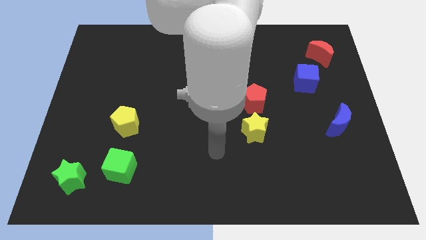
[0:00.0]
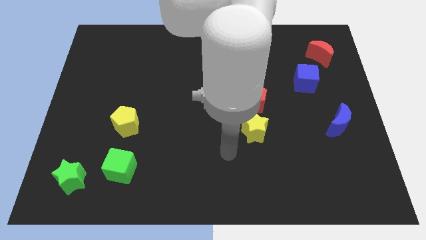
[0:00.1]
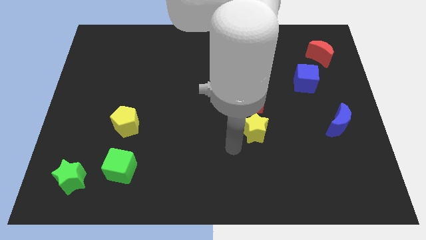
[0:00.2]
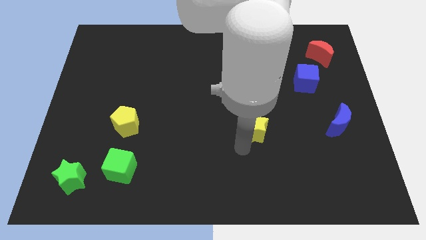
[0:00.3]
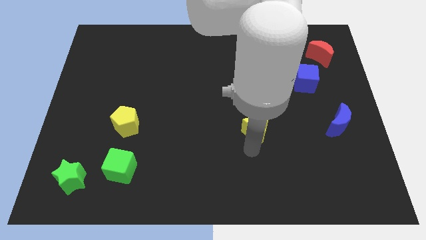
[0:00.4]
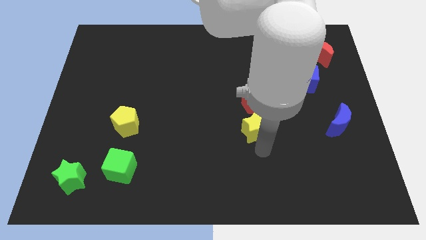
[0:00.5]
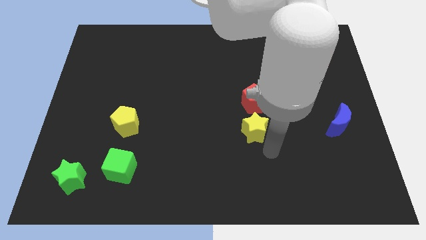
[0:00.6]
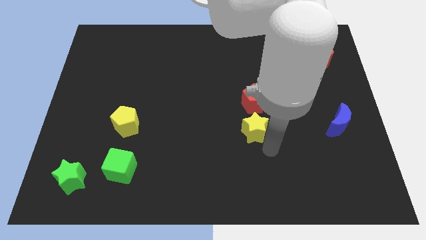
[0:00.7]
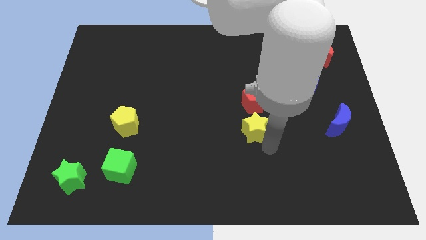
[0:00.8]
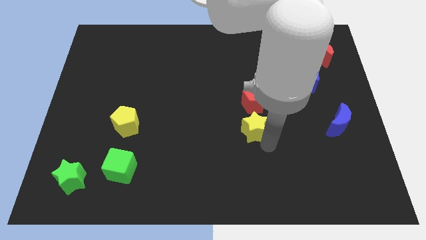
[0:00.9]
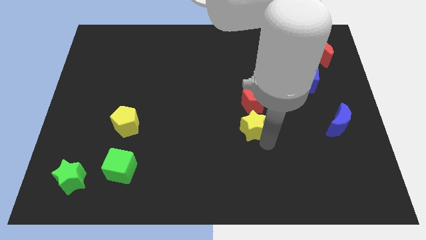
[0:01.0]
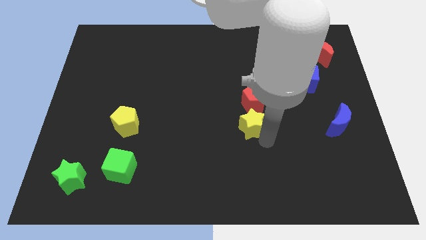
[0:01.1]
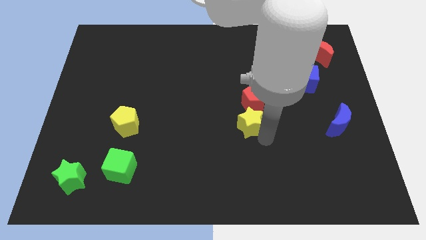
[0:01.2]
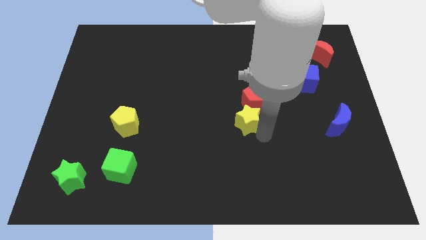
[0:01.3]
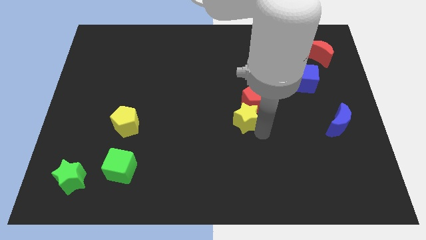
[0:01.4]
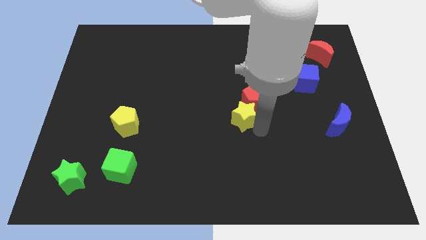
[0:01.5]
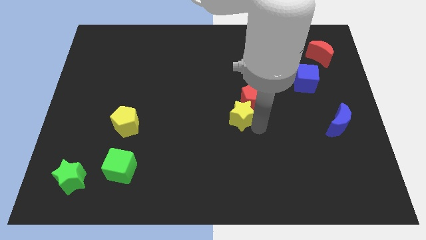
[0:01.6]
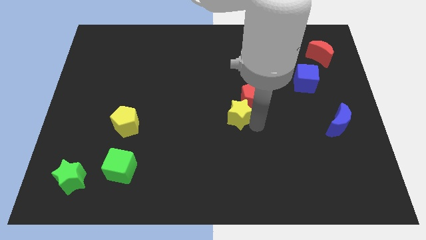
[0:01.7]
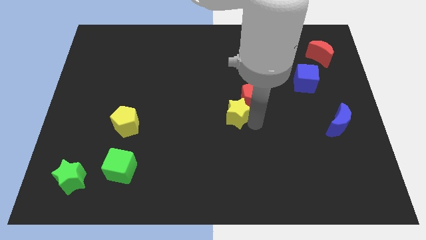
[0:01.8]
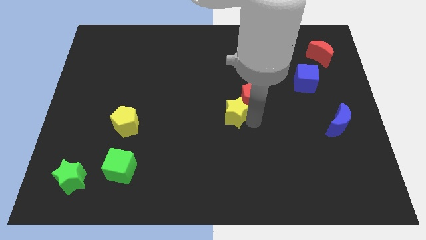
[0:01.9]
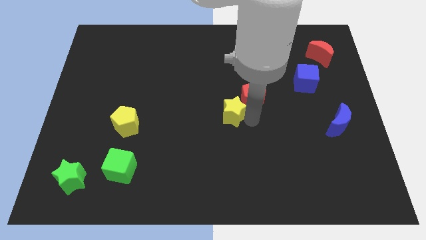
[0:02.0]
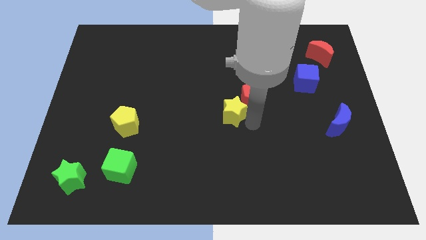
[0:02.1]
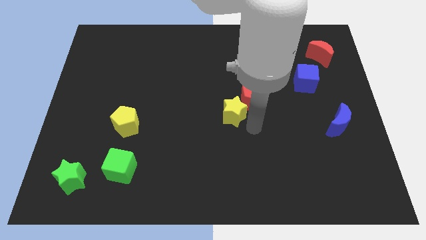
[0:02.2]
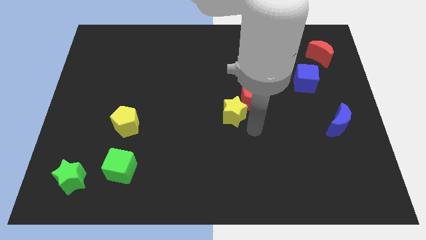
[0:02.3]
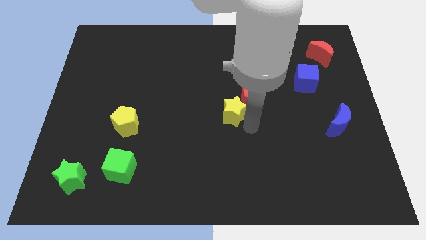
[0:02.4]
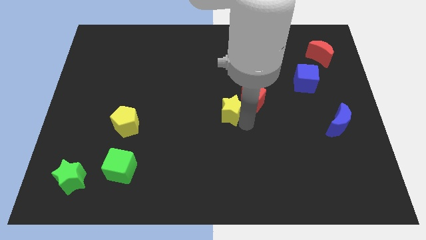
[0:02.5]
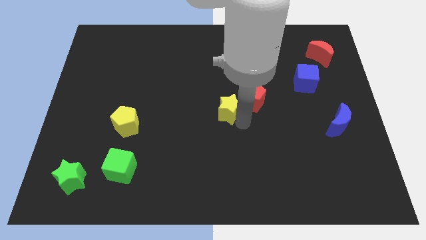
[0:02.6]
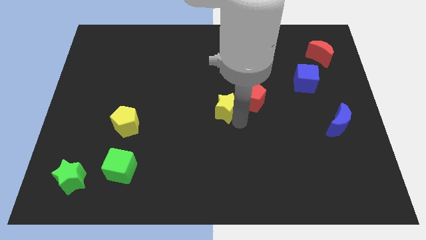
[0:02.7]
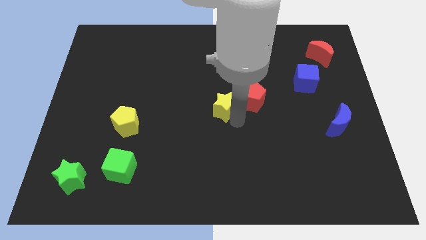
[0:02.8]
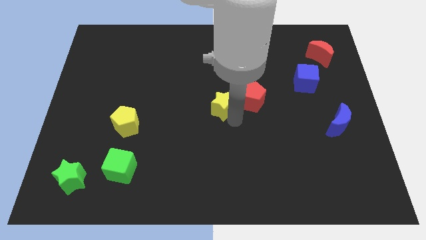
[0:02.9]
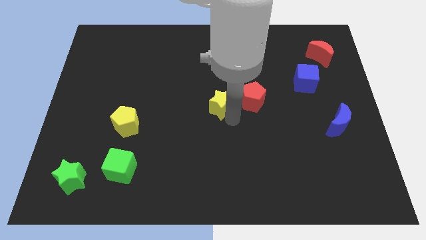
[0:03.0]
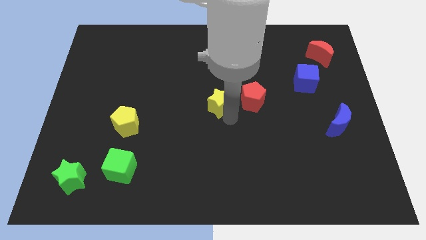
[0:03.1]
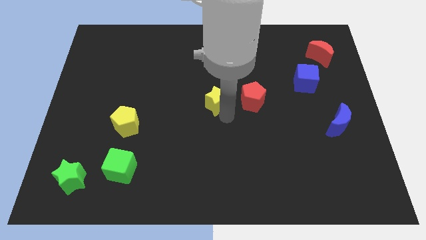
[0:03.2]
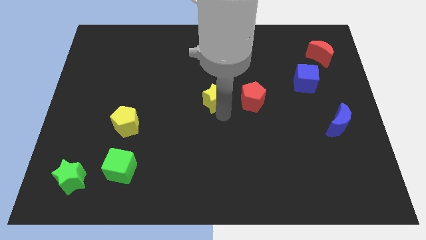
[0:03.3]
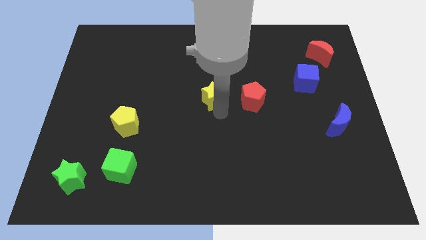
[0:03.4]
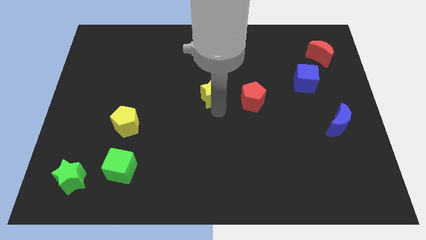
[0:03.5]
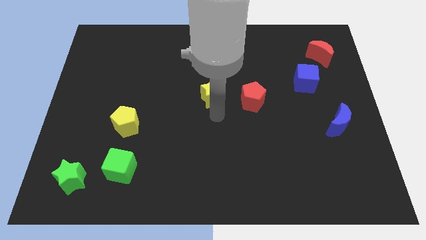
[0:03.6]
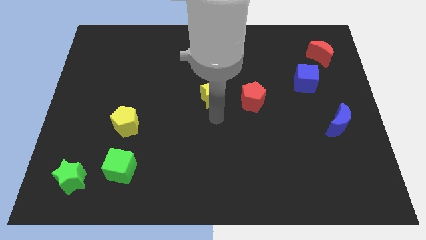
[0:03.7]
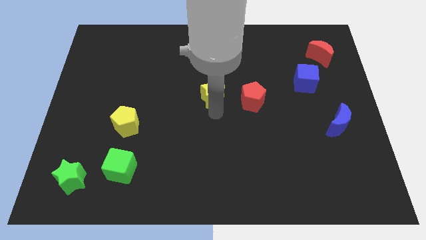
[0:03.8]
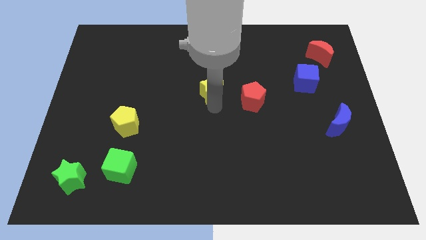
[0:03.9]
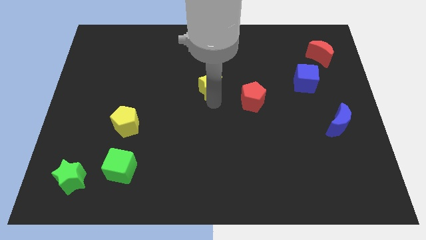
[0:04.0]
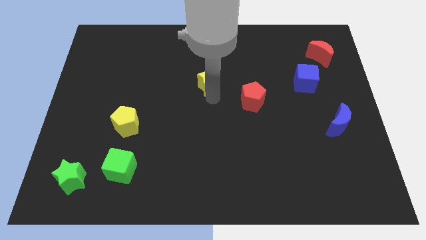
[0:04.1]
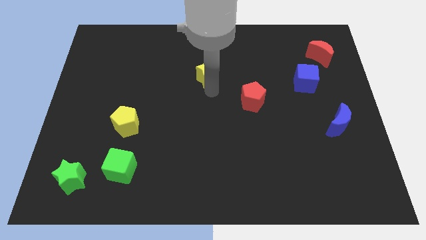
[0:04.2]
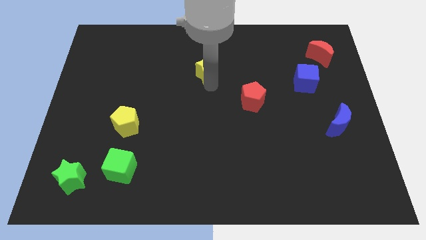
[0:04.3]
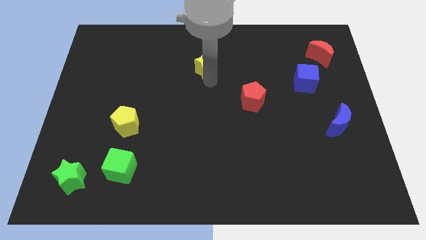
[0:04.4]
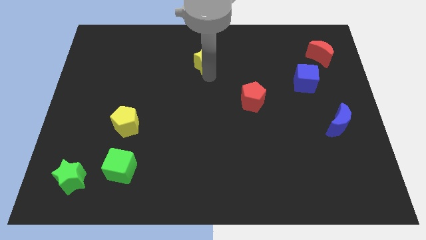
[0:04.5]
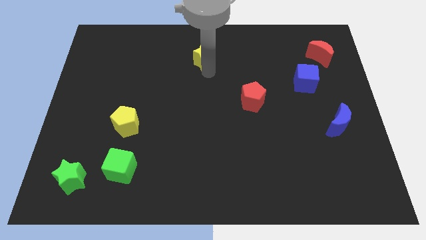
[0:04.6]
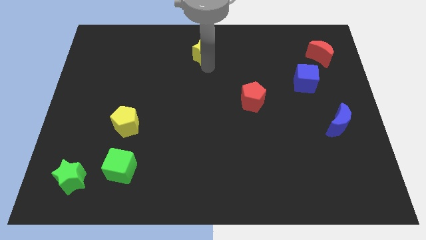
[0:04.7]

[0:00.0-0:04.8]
slide the yellow star to the top

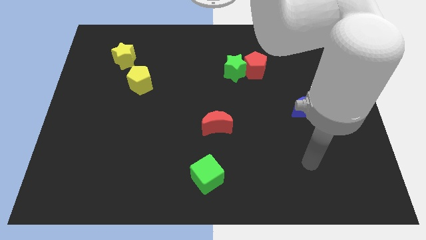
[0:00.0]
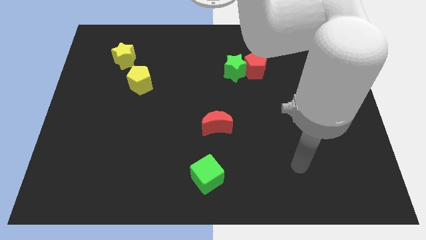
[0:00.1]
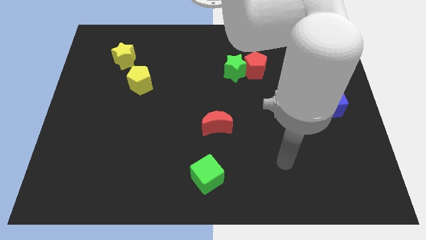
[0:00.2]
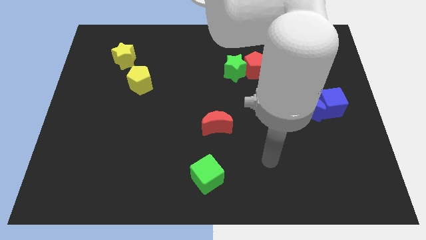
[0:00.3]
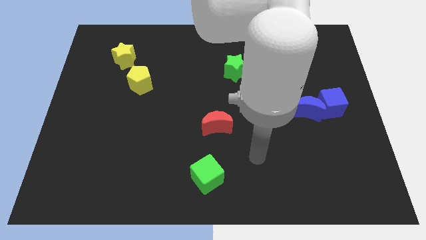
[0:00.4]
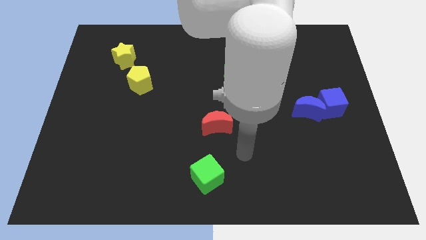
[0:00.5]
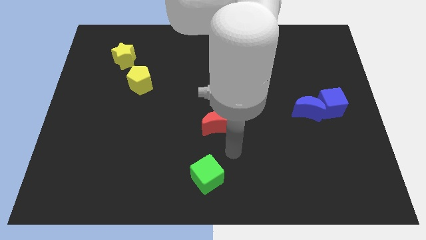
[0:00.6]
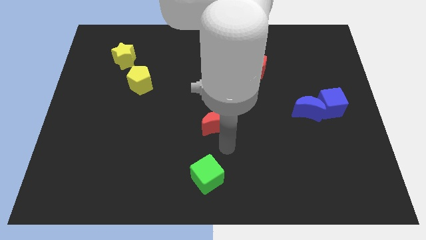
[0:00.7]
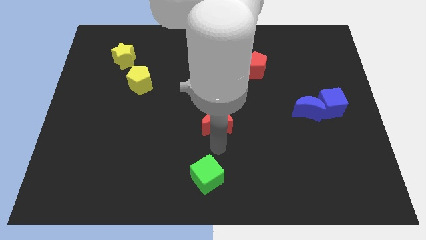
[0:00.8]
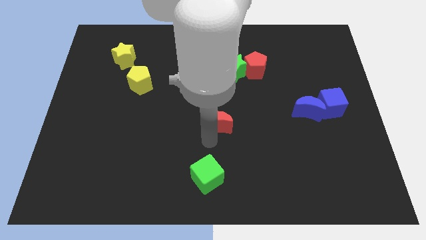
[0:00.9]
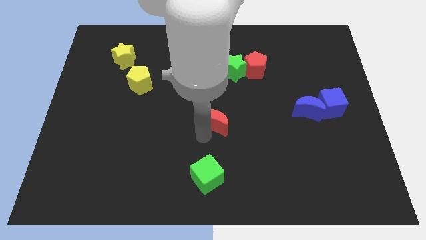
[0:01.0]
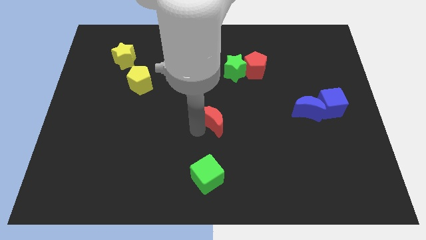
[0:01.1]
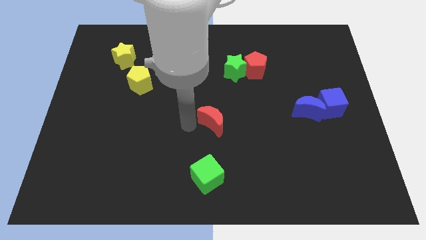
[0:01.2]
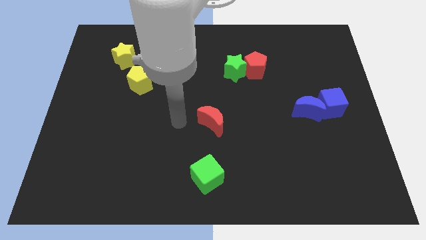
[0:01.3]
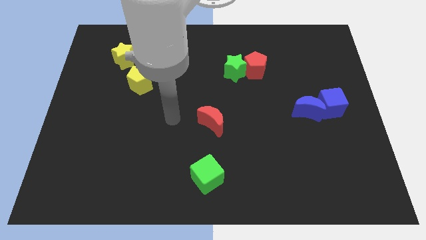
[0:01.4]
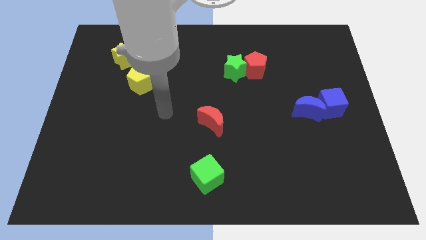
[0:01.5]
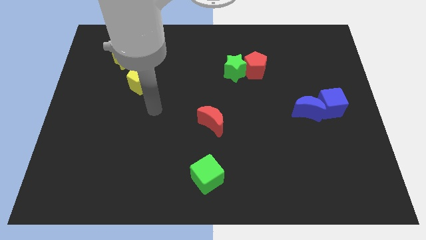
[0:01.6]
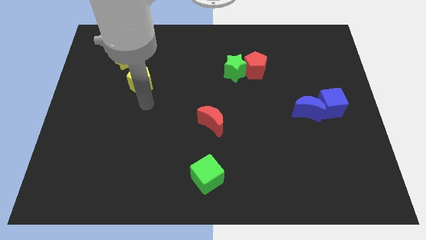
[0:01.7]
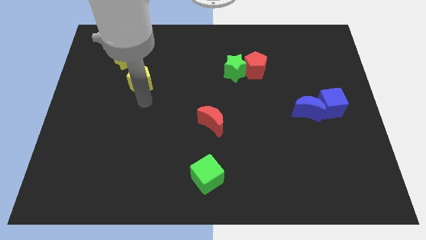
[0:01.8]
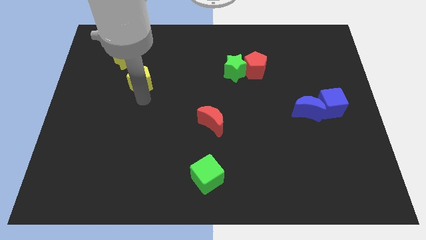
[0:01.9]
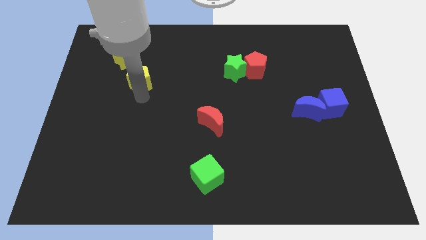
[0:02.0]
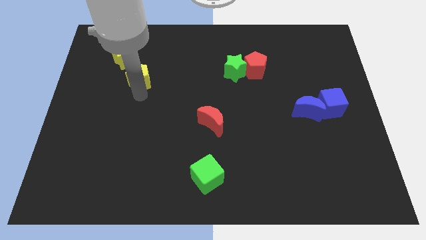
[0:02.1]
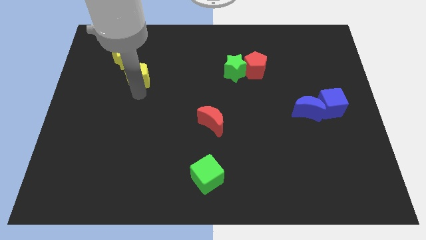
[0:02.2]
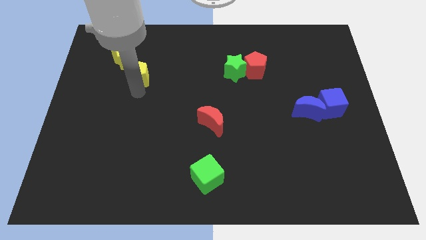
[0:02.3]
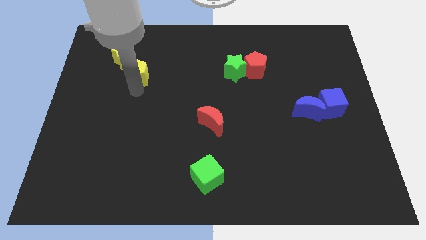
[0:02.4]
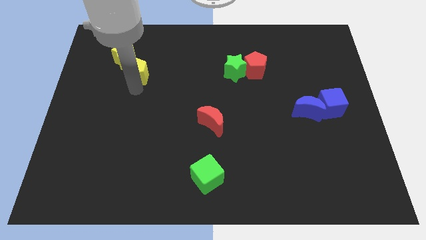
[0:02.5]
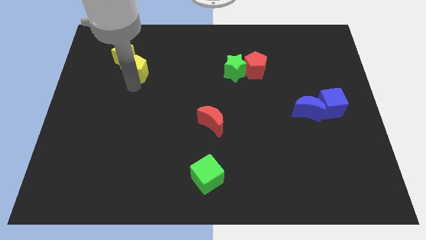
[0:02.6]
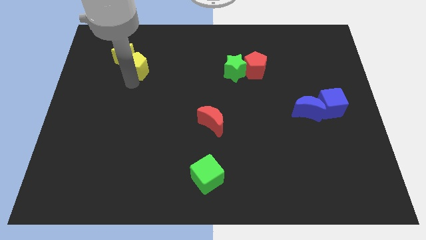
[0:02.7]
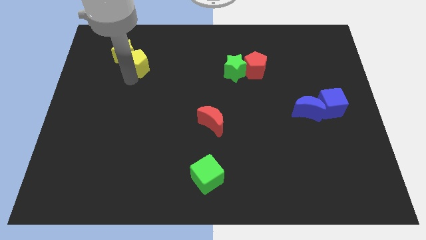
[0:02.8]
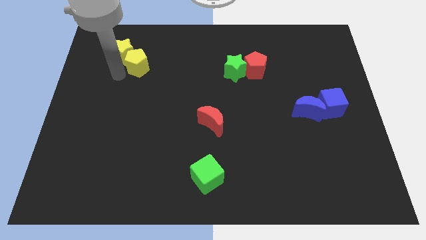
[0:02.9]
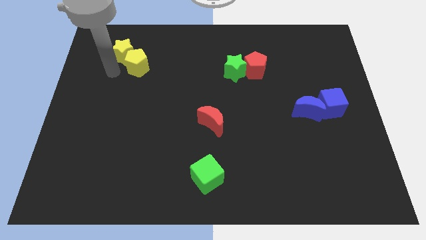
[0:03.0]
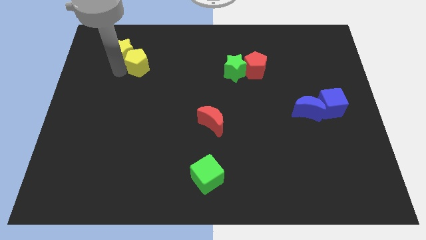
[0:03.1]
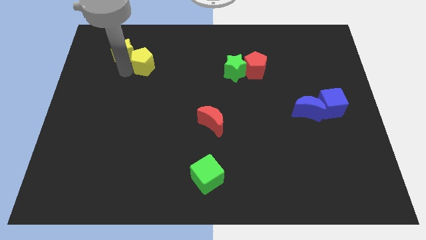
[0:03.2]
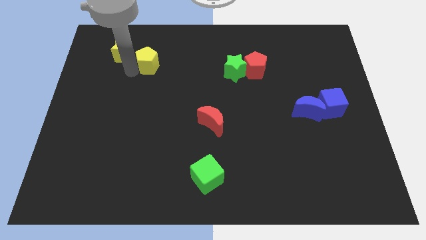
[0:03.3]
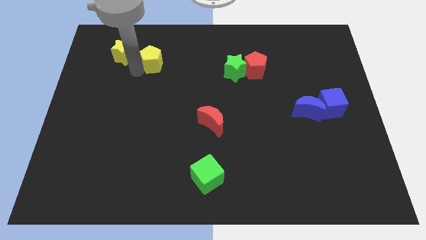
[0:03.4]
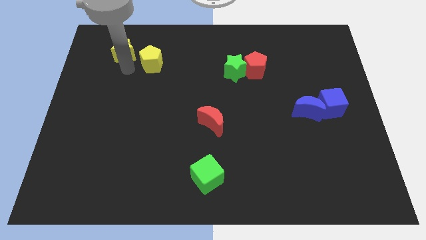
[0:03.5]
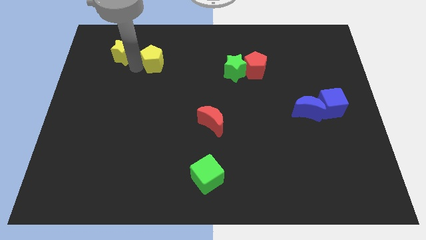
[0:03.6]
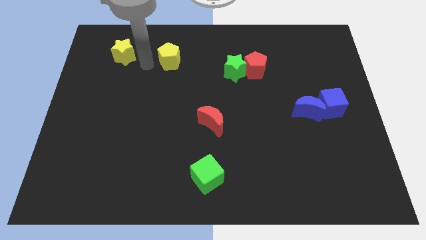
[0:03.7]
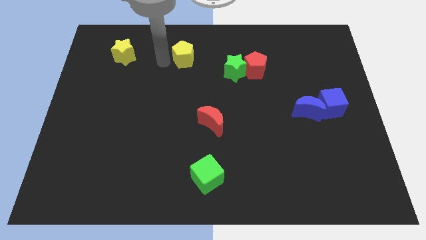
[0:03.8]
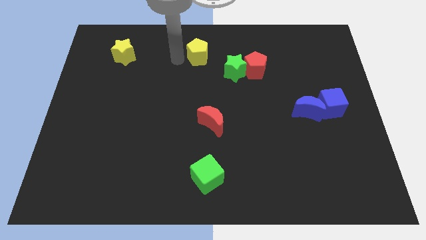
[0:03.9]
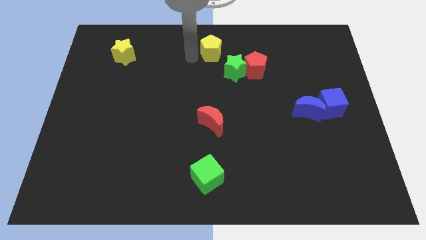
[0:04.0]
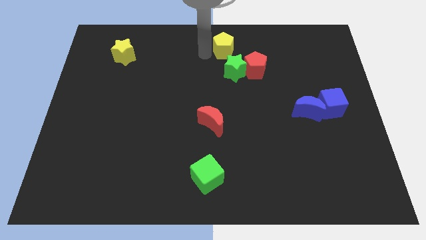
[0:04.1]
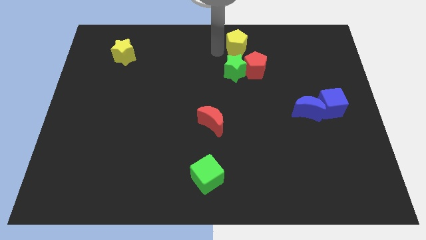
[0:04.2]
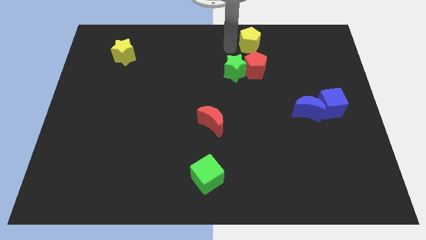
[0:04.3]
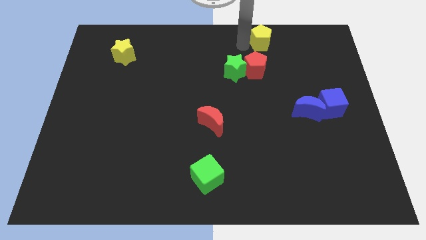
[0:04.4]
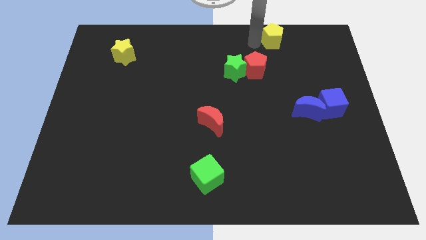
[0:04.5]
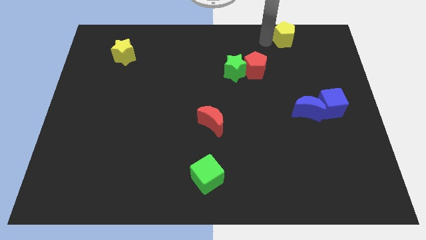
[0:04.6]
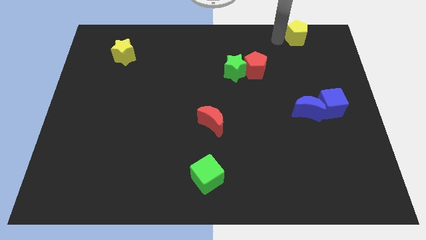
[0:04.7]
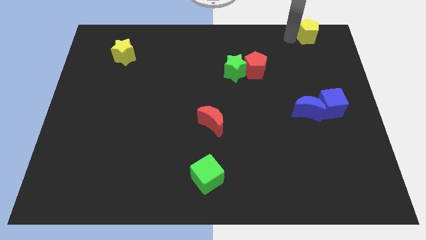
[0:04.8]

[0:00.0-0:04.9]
slide the yellow pentagon to the top right corner
